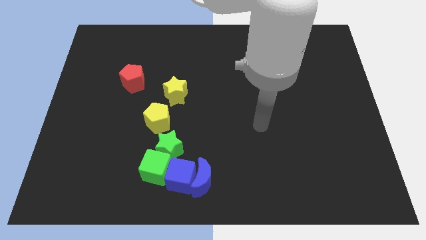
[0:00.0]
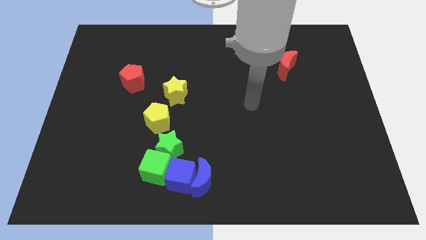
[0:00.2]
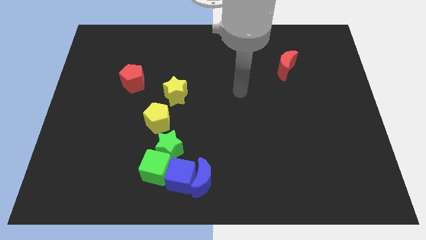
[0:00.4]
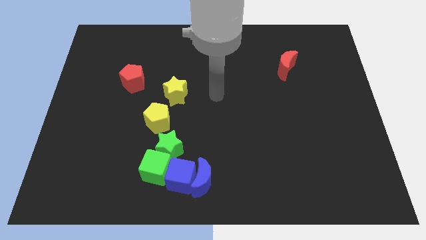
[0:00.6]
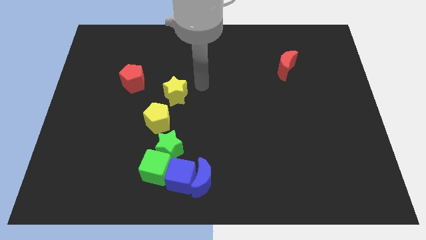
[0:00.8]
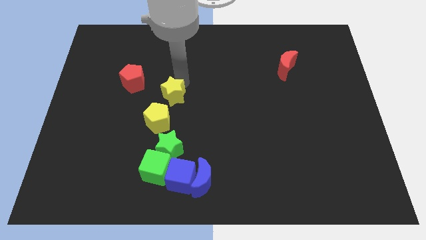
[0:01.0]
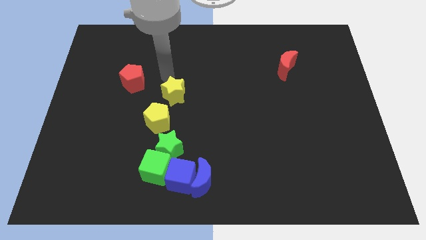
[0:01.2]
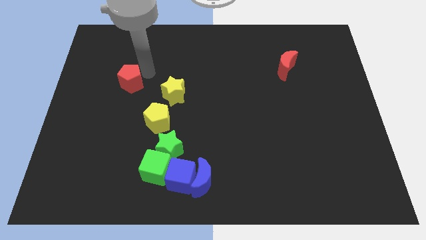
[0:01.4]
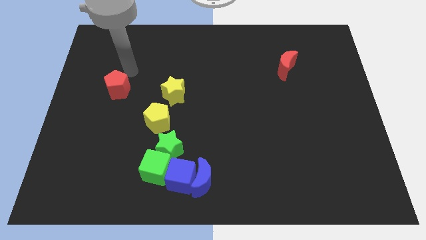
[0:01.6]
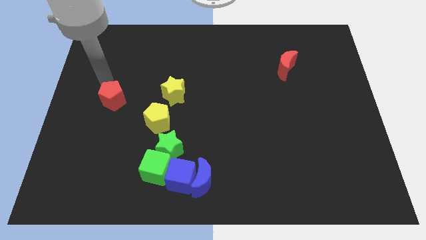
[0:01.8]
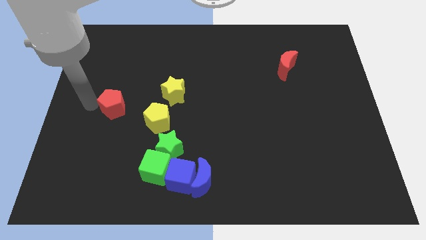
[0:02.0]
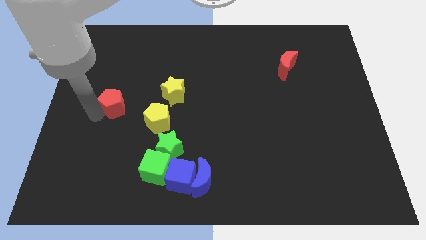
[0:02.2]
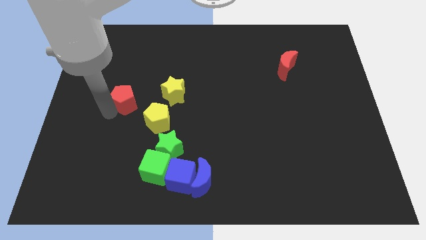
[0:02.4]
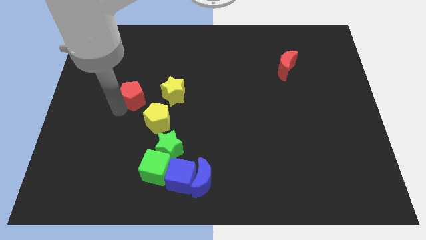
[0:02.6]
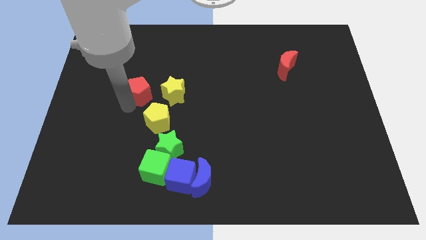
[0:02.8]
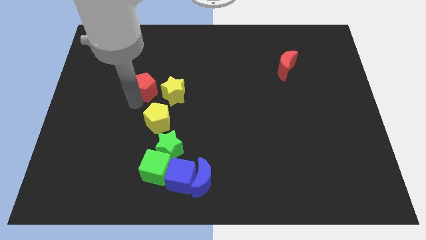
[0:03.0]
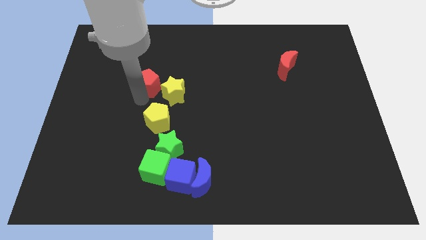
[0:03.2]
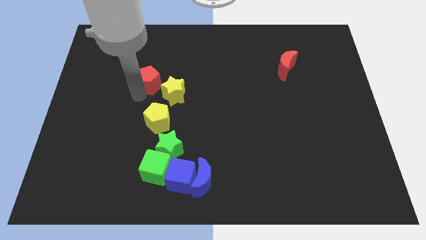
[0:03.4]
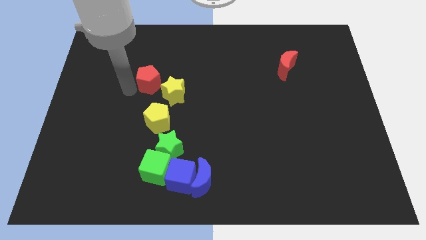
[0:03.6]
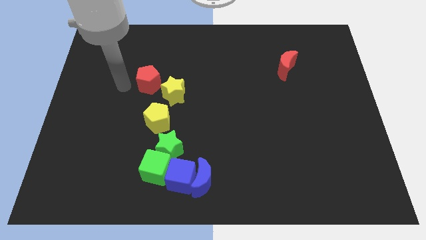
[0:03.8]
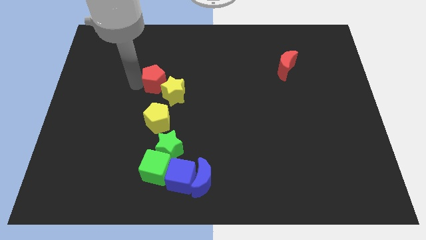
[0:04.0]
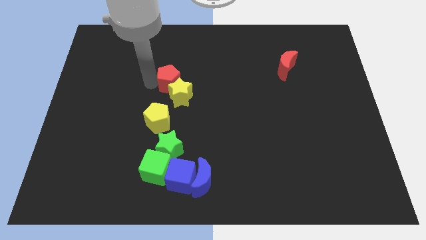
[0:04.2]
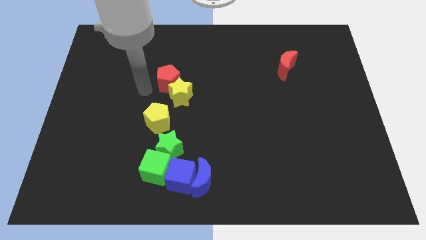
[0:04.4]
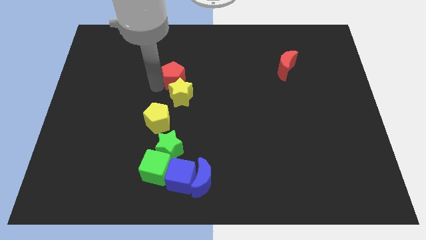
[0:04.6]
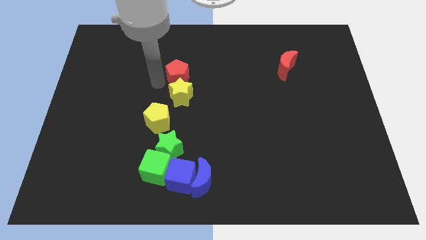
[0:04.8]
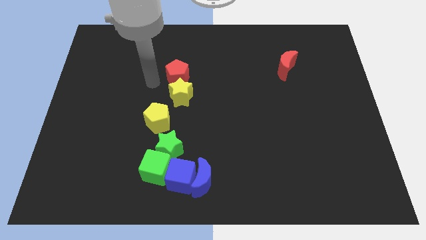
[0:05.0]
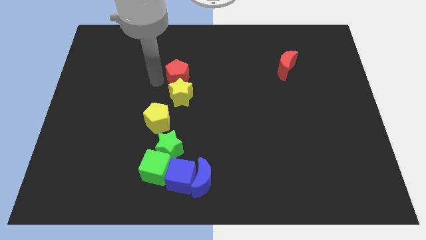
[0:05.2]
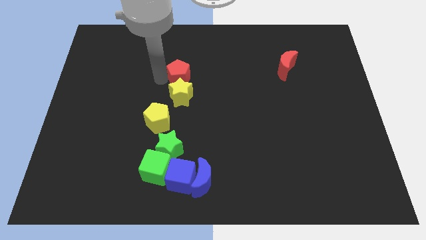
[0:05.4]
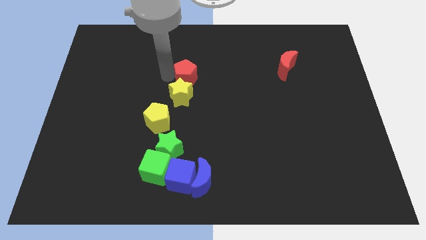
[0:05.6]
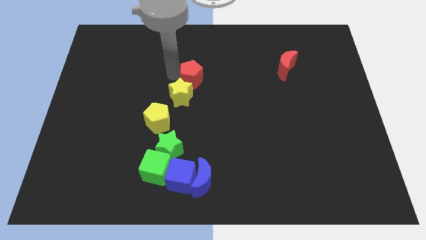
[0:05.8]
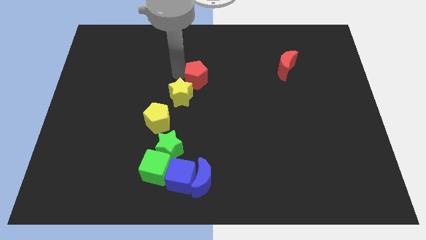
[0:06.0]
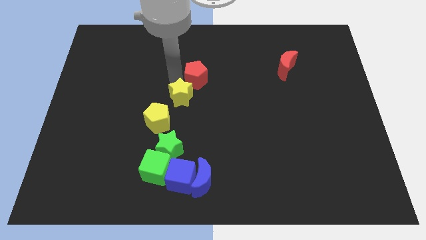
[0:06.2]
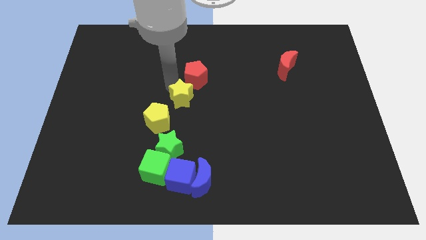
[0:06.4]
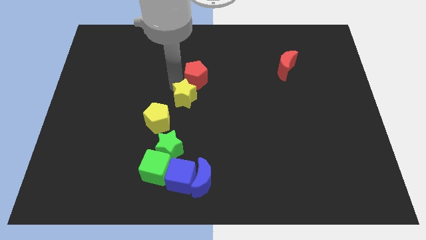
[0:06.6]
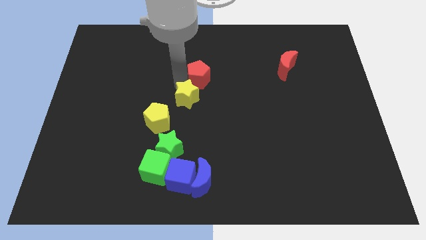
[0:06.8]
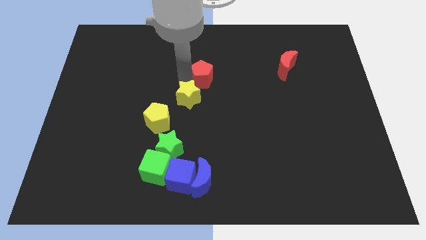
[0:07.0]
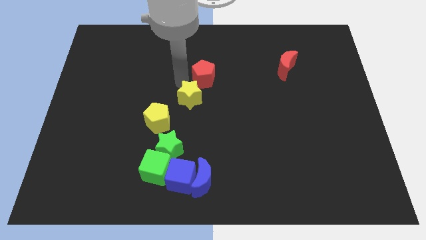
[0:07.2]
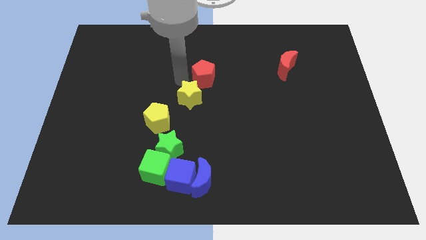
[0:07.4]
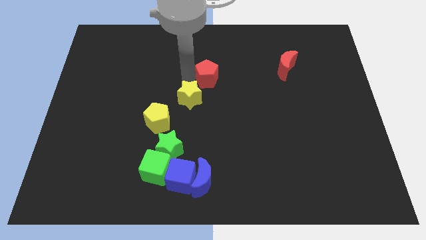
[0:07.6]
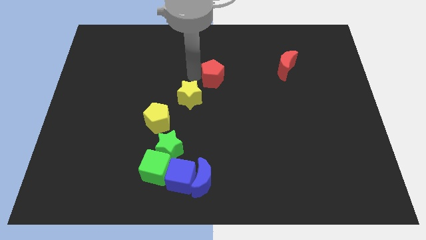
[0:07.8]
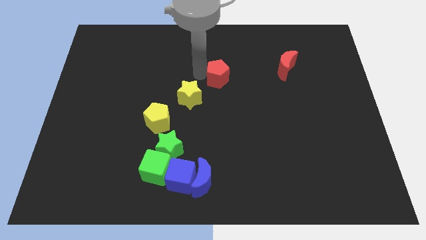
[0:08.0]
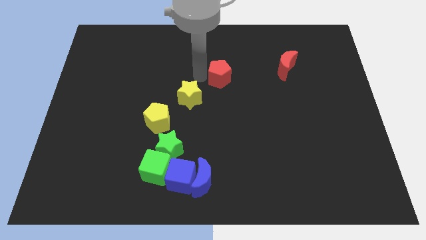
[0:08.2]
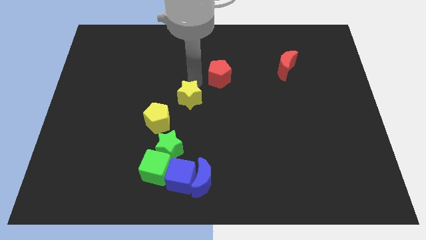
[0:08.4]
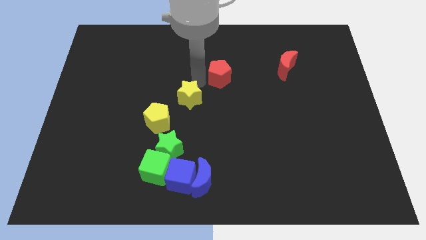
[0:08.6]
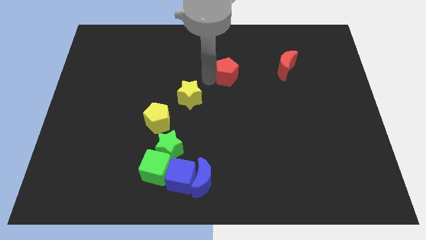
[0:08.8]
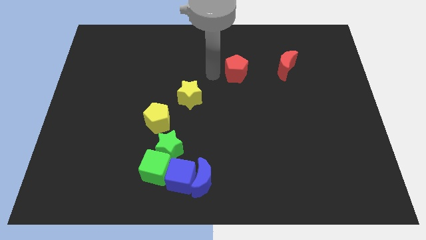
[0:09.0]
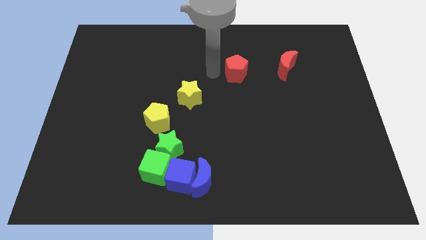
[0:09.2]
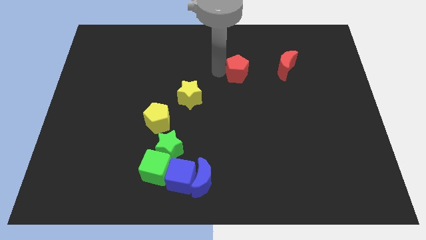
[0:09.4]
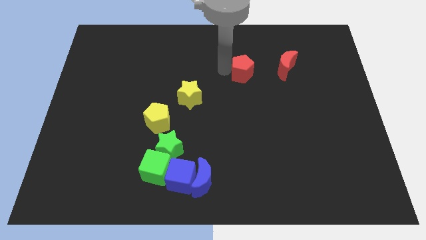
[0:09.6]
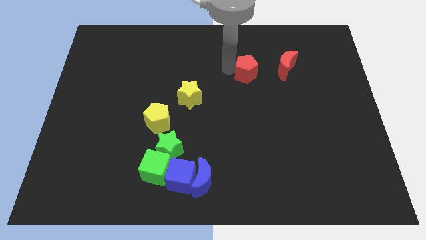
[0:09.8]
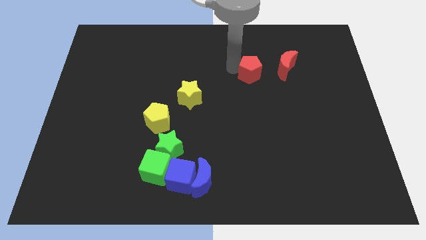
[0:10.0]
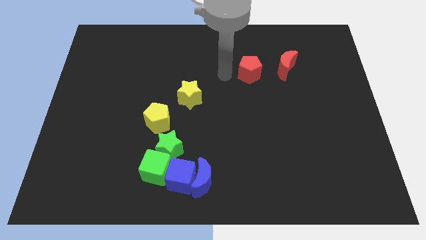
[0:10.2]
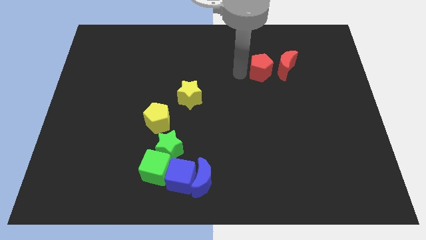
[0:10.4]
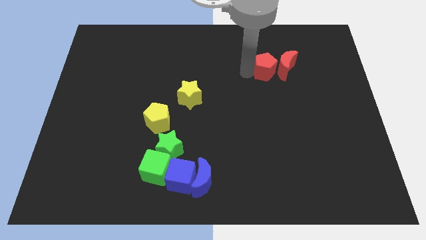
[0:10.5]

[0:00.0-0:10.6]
move the red pentagon to the red moon

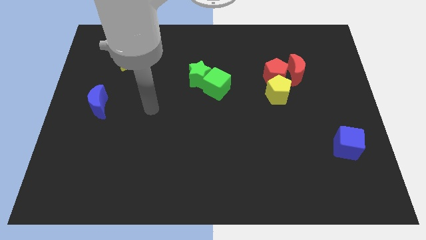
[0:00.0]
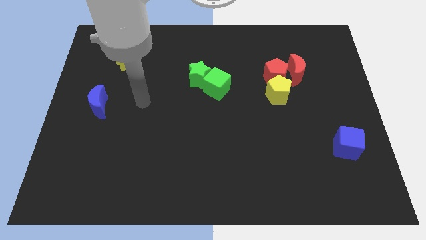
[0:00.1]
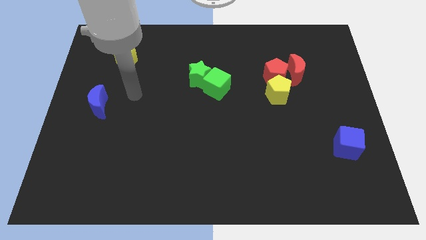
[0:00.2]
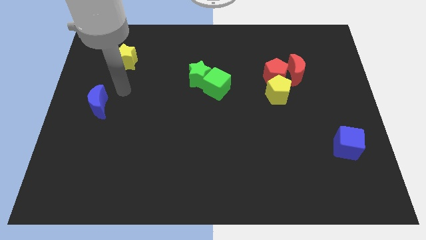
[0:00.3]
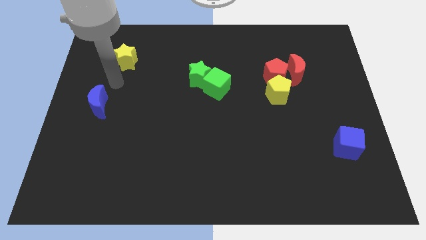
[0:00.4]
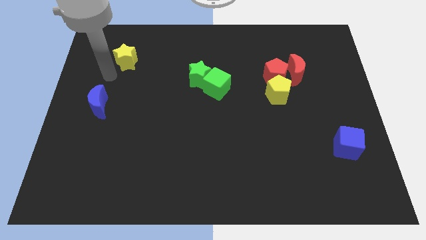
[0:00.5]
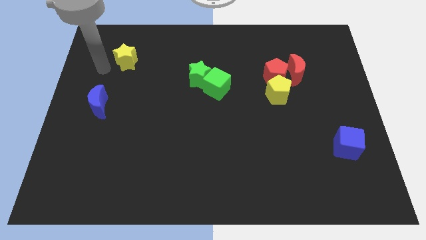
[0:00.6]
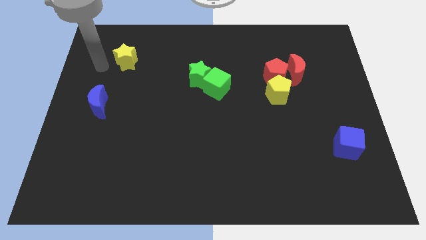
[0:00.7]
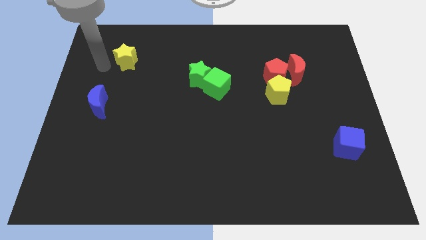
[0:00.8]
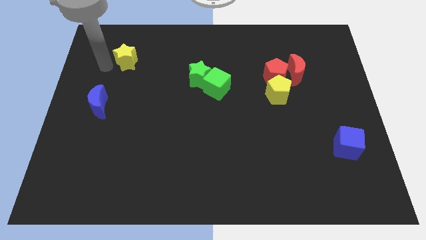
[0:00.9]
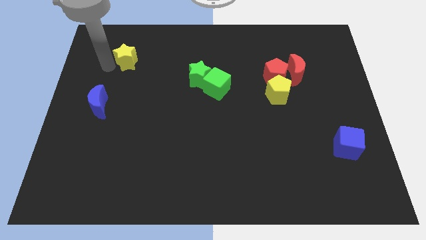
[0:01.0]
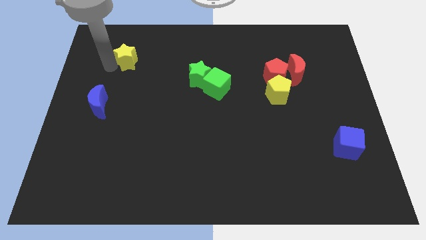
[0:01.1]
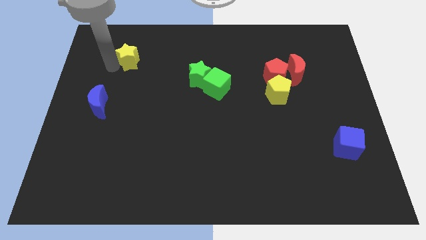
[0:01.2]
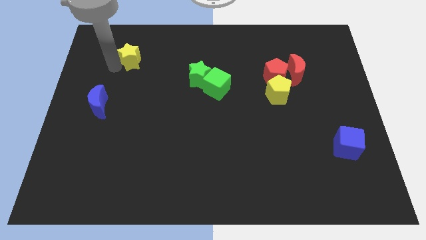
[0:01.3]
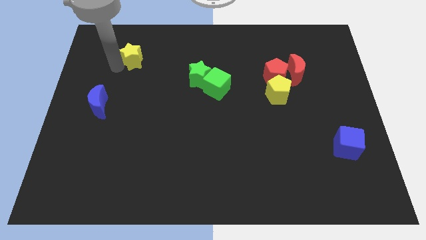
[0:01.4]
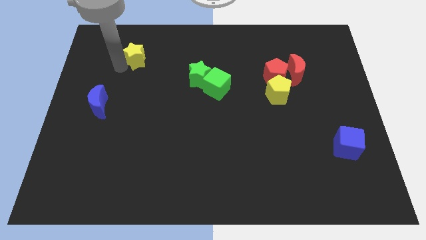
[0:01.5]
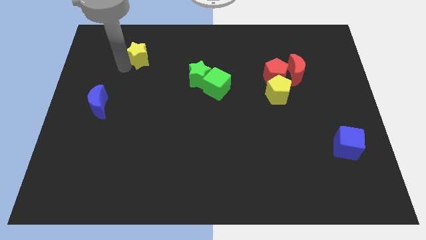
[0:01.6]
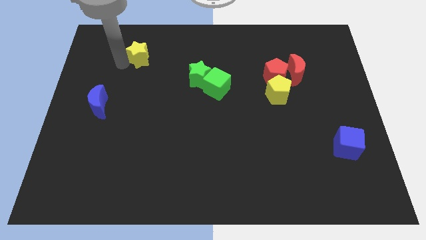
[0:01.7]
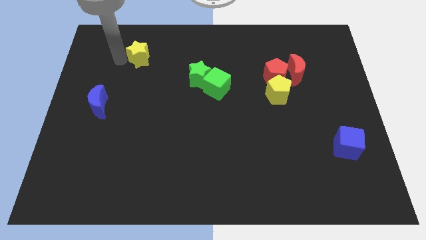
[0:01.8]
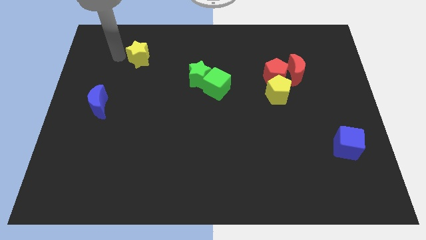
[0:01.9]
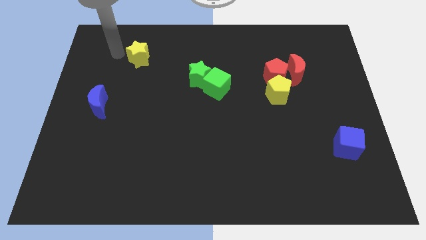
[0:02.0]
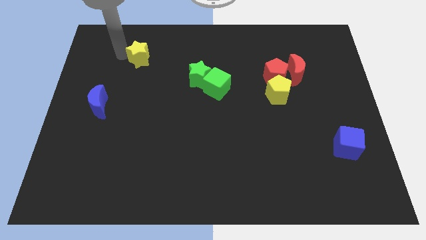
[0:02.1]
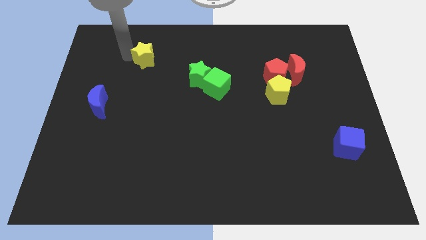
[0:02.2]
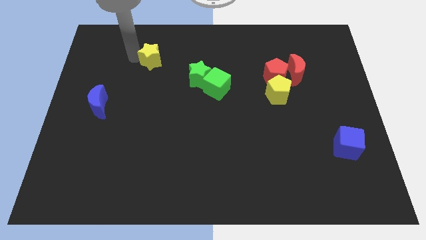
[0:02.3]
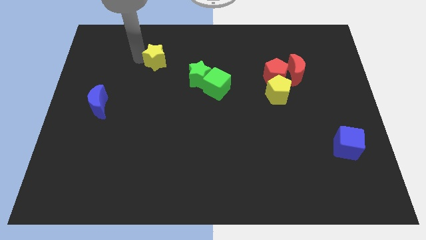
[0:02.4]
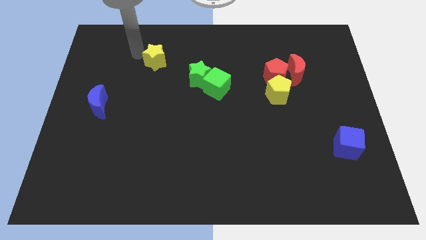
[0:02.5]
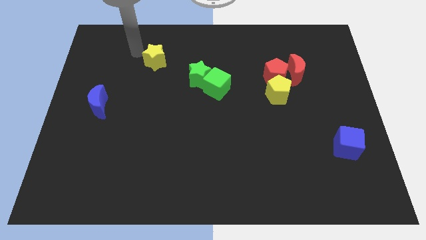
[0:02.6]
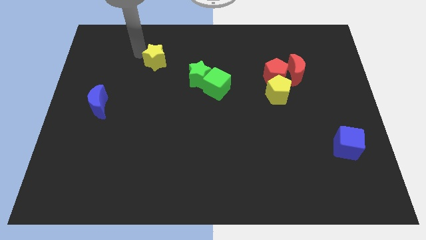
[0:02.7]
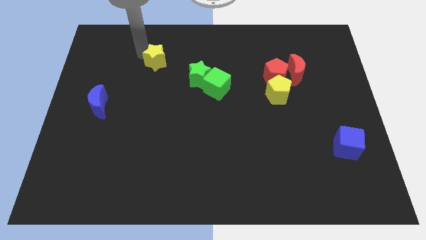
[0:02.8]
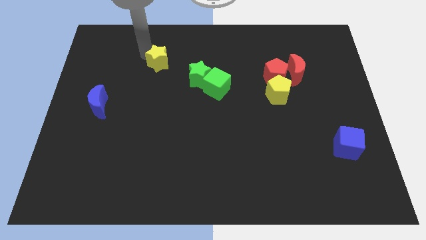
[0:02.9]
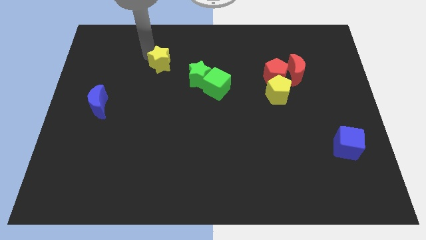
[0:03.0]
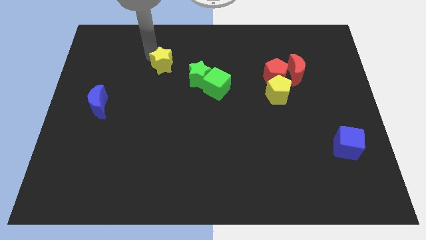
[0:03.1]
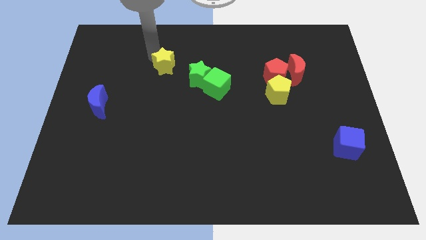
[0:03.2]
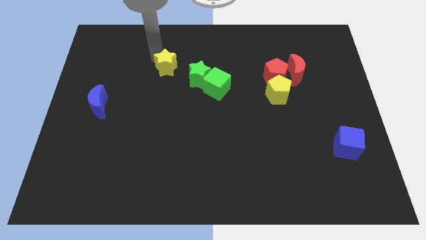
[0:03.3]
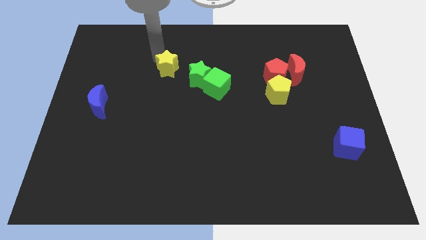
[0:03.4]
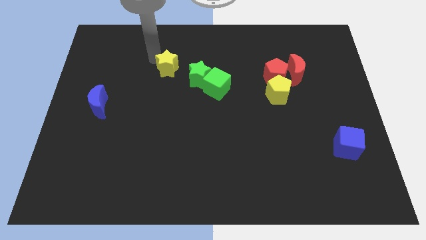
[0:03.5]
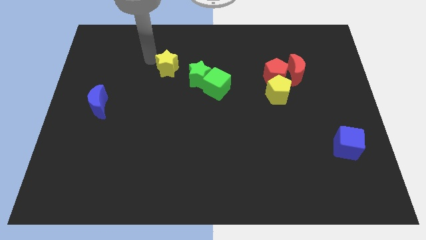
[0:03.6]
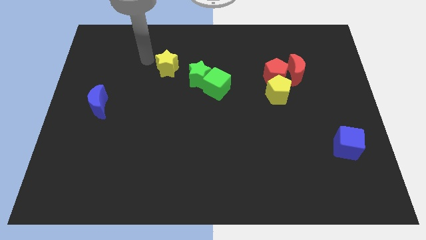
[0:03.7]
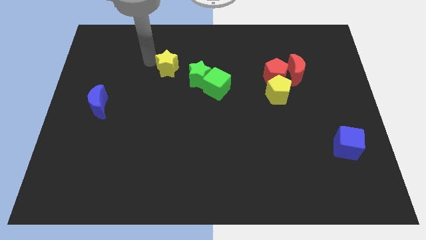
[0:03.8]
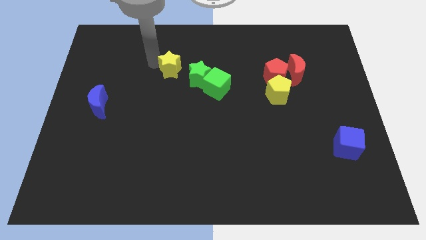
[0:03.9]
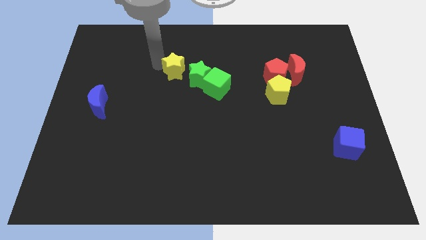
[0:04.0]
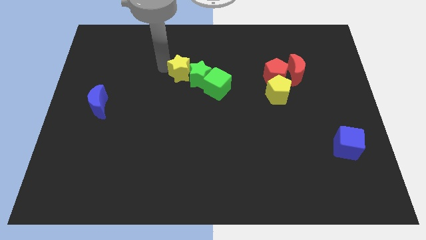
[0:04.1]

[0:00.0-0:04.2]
move the yellow star close to the green star
